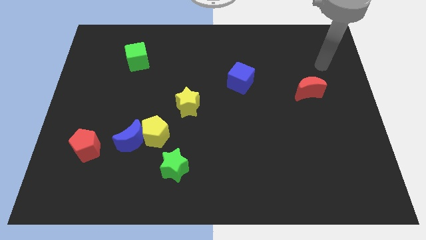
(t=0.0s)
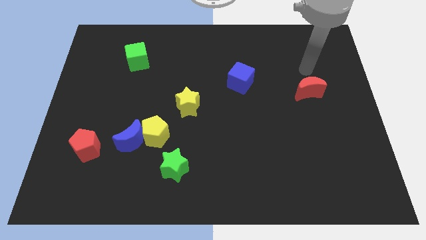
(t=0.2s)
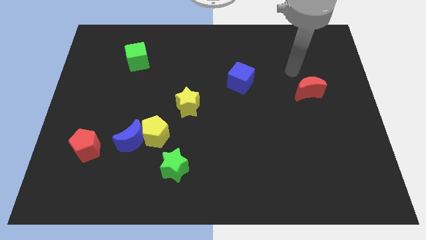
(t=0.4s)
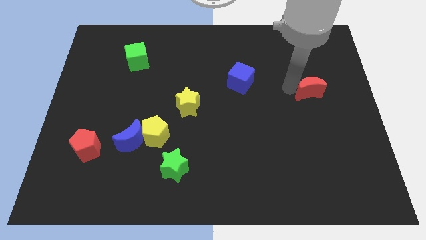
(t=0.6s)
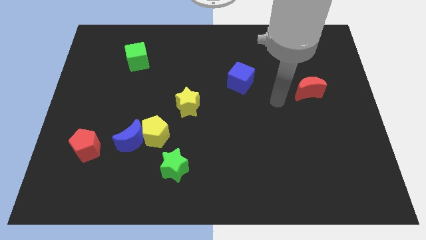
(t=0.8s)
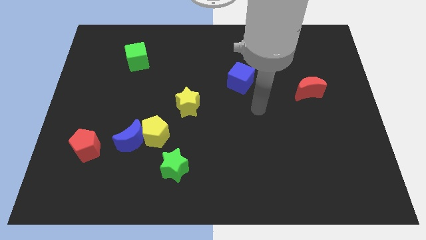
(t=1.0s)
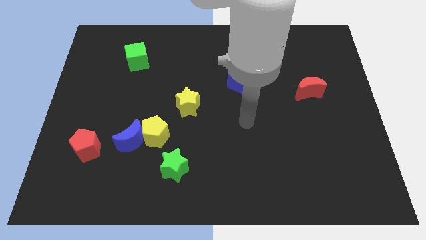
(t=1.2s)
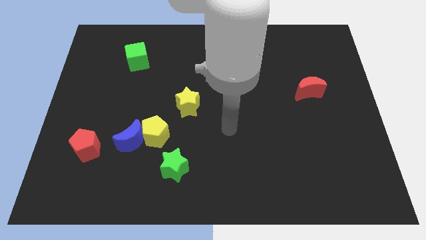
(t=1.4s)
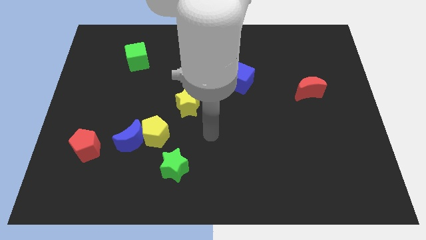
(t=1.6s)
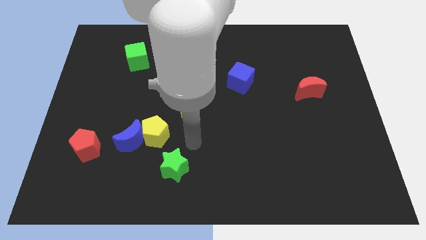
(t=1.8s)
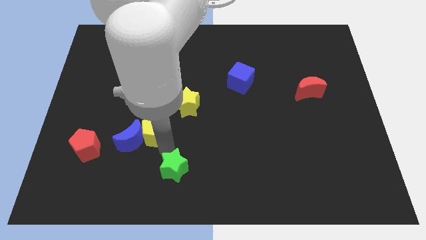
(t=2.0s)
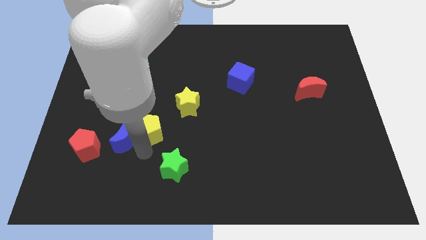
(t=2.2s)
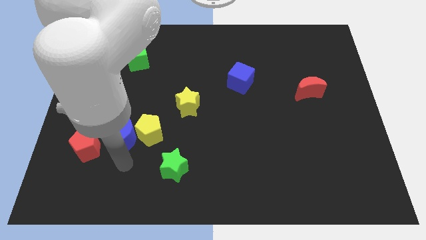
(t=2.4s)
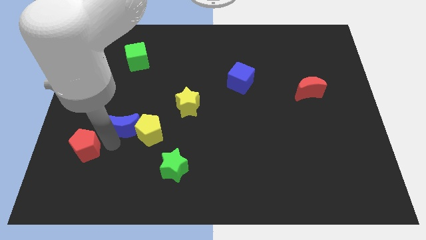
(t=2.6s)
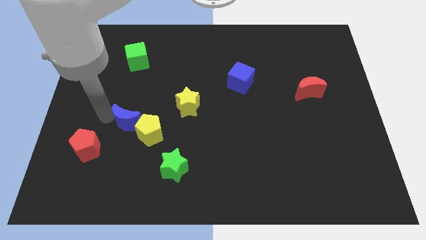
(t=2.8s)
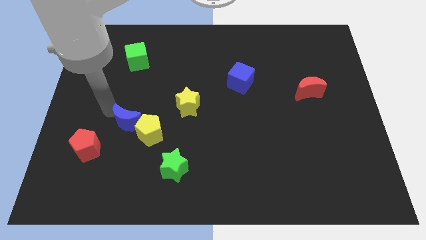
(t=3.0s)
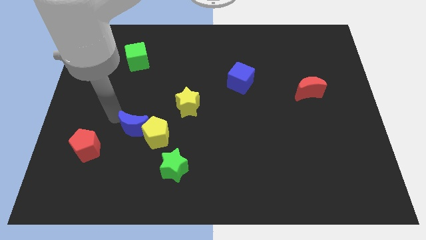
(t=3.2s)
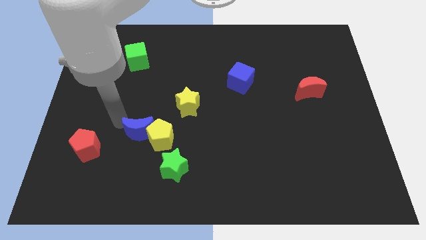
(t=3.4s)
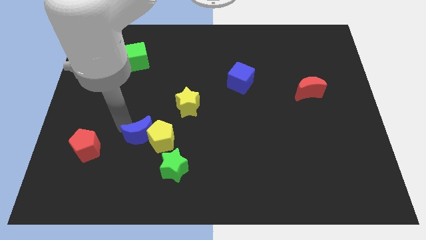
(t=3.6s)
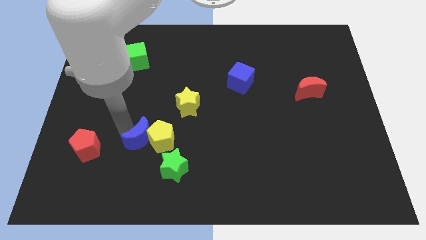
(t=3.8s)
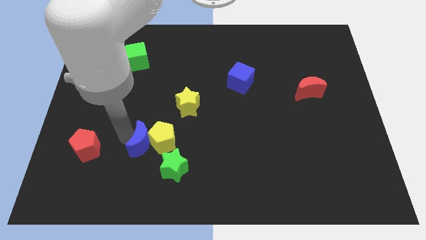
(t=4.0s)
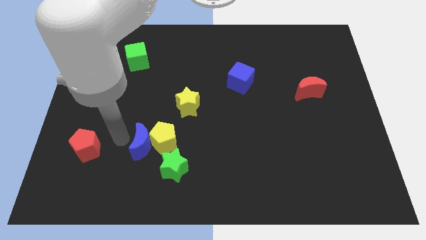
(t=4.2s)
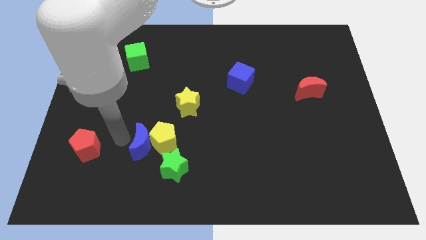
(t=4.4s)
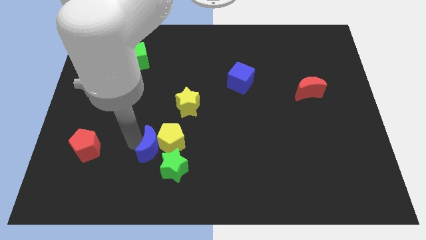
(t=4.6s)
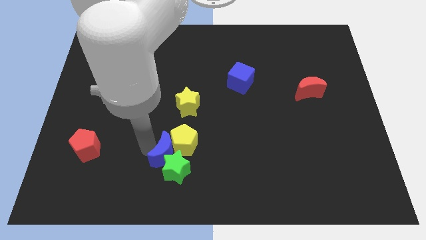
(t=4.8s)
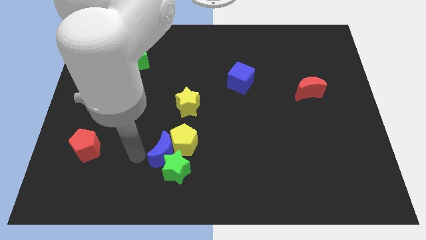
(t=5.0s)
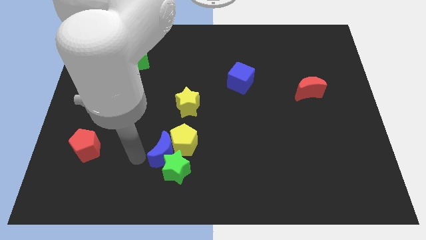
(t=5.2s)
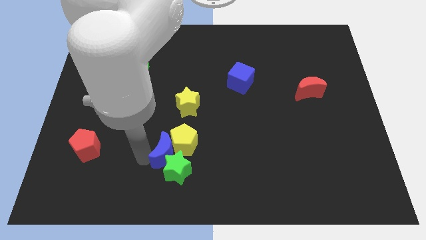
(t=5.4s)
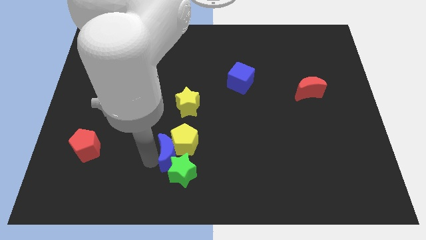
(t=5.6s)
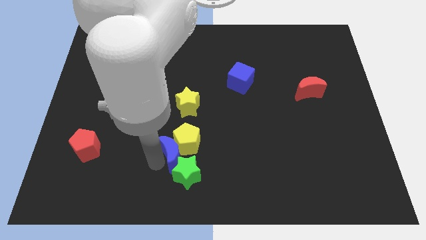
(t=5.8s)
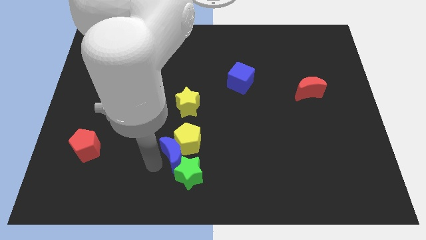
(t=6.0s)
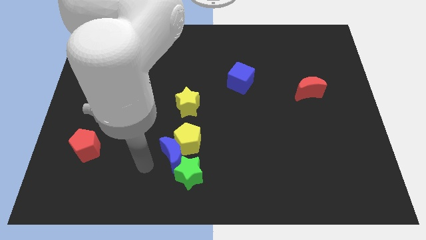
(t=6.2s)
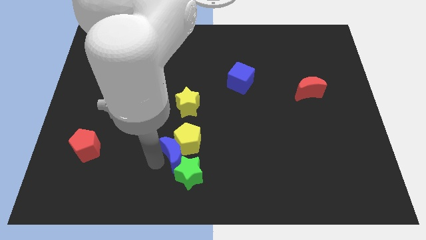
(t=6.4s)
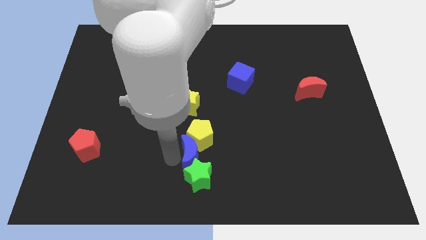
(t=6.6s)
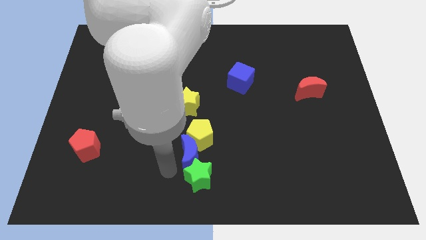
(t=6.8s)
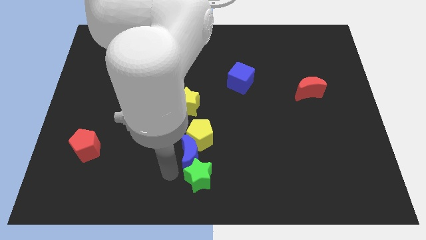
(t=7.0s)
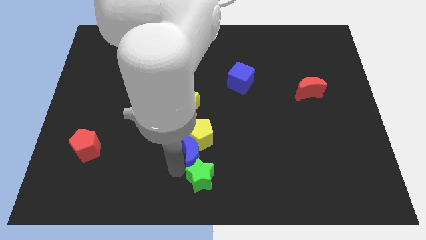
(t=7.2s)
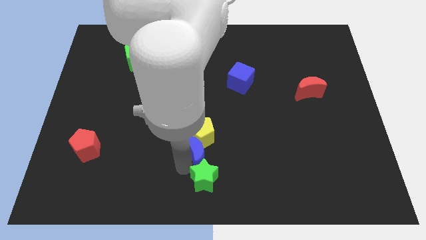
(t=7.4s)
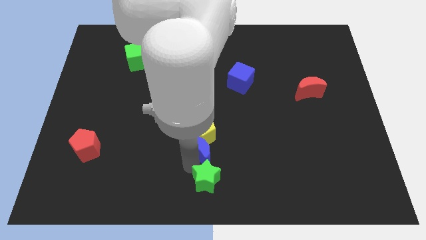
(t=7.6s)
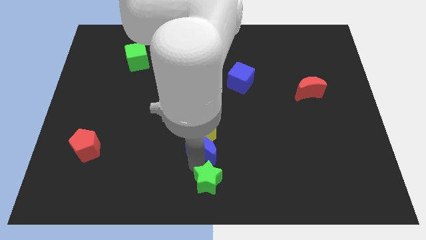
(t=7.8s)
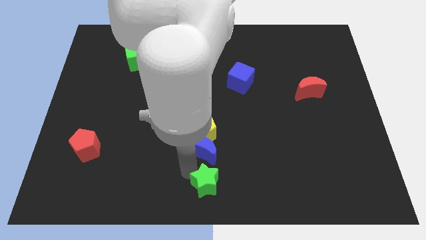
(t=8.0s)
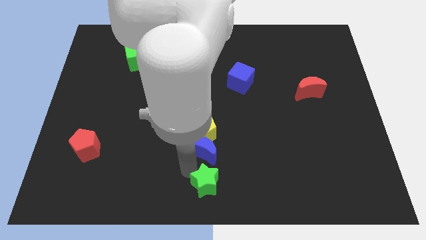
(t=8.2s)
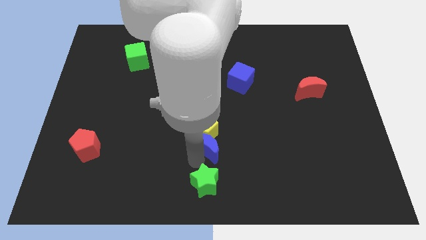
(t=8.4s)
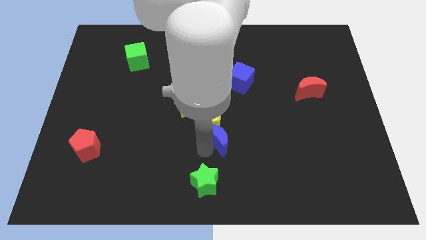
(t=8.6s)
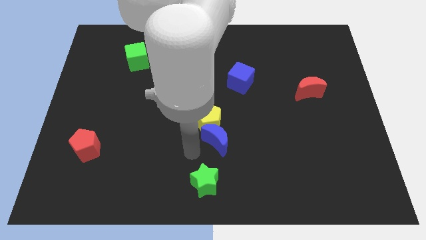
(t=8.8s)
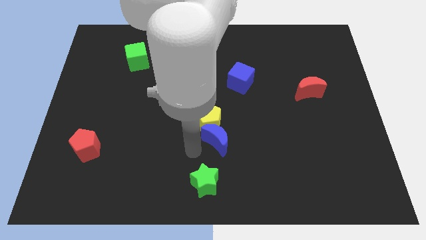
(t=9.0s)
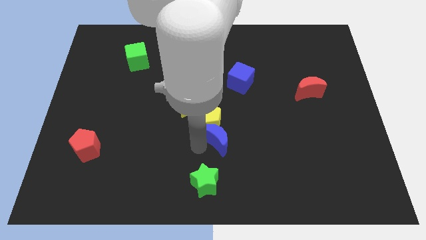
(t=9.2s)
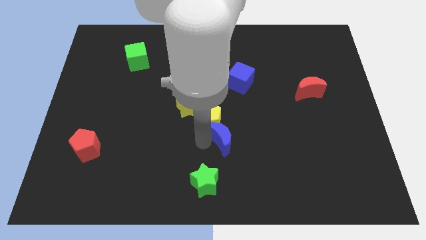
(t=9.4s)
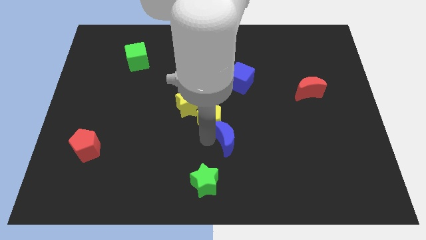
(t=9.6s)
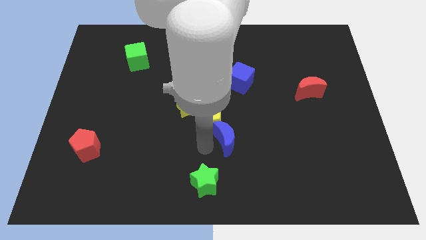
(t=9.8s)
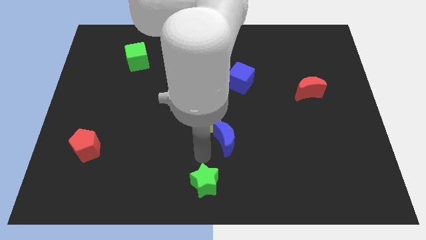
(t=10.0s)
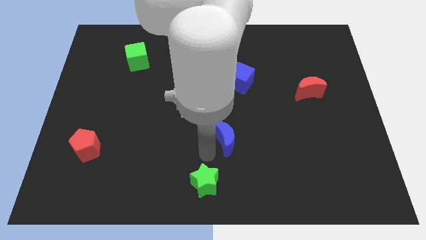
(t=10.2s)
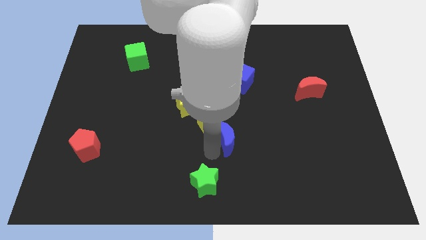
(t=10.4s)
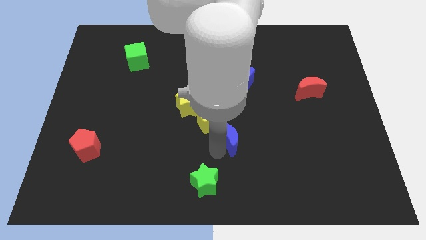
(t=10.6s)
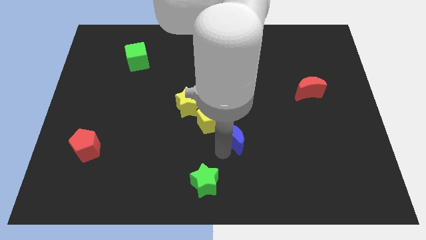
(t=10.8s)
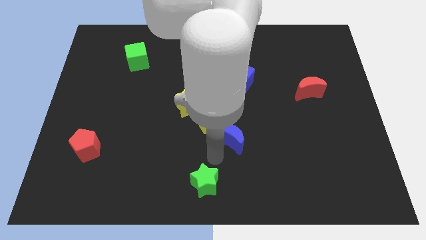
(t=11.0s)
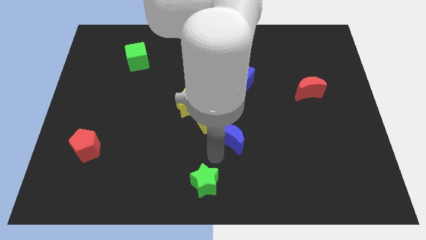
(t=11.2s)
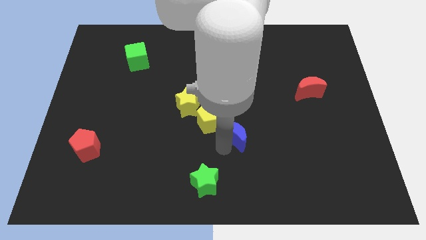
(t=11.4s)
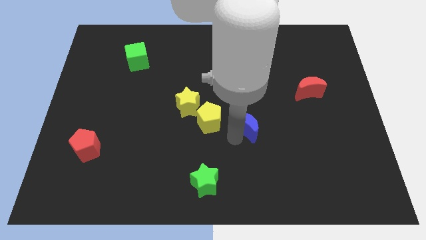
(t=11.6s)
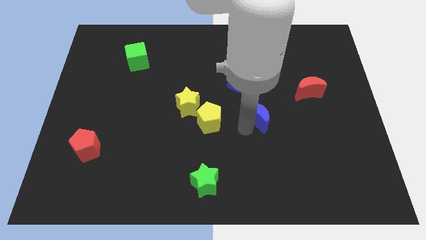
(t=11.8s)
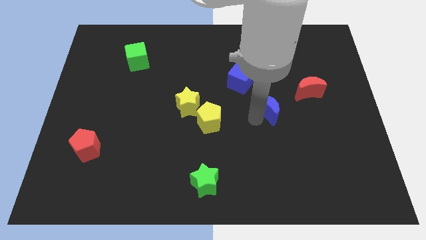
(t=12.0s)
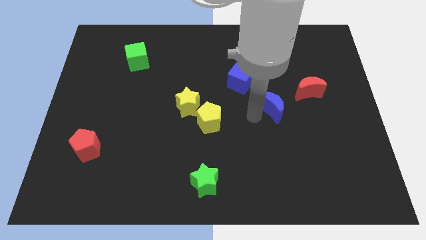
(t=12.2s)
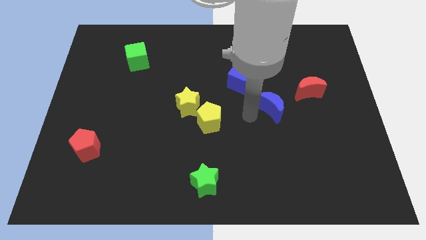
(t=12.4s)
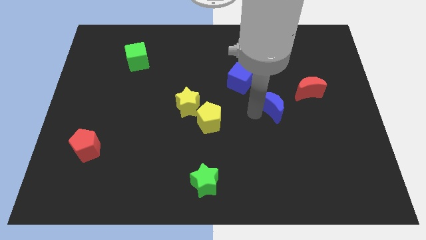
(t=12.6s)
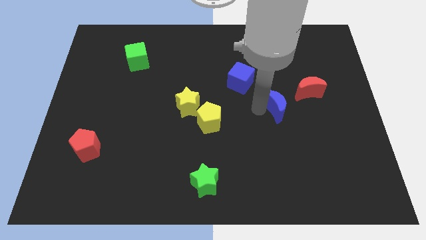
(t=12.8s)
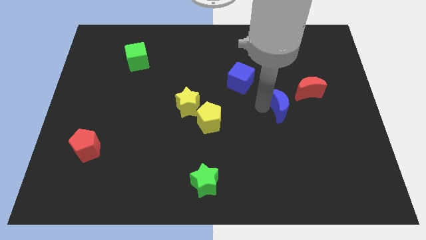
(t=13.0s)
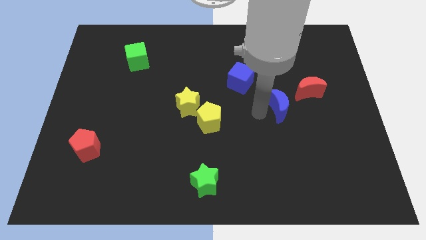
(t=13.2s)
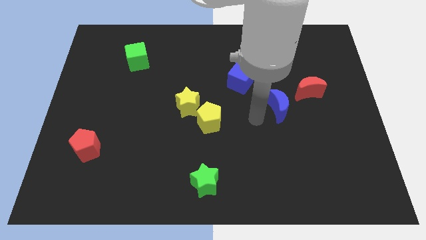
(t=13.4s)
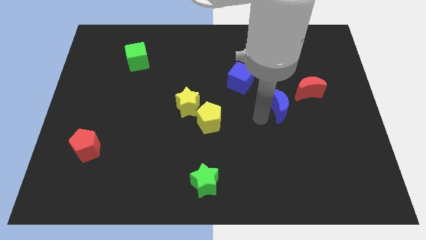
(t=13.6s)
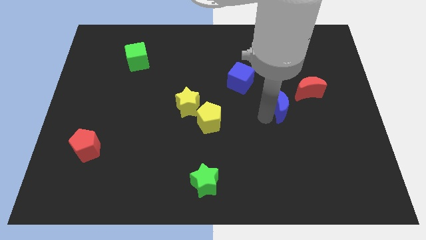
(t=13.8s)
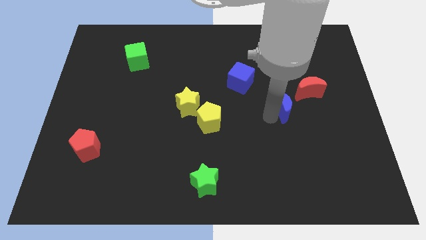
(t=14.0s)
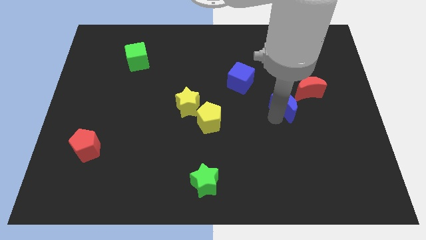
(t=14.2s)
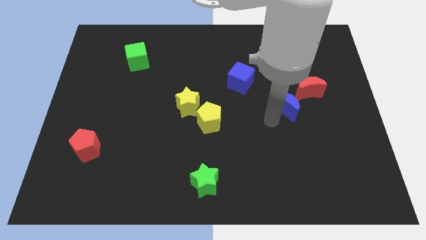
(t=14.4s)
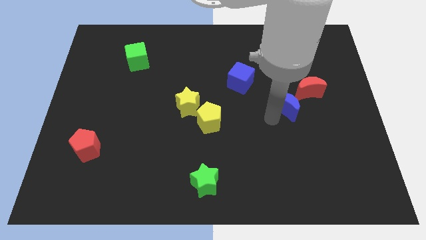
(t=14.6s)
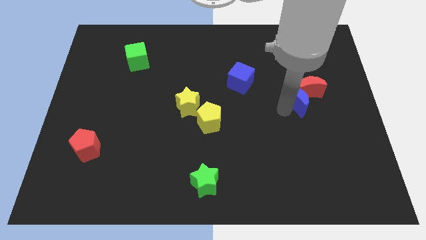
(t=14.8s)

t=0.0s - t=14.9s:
push the blue moon close to the red moon
